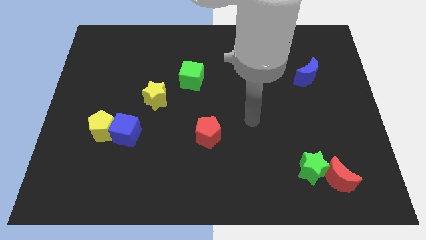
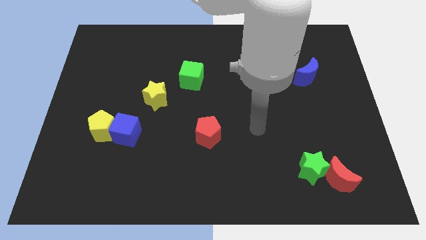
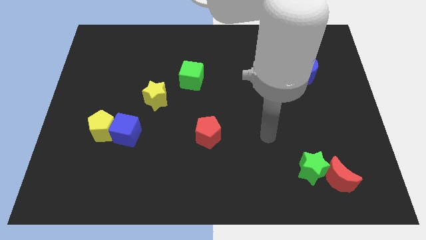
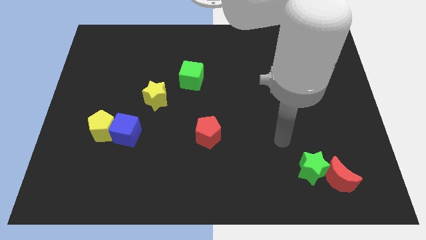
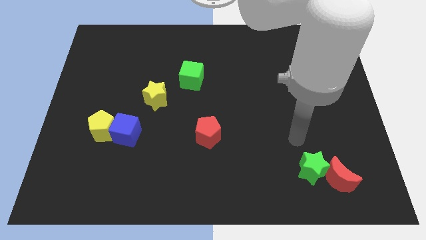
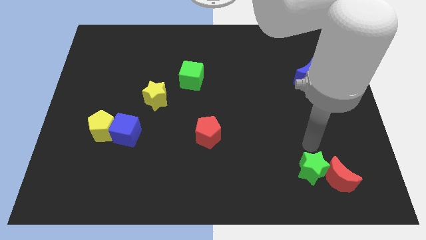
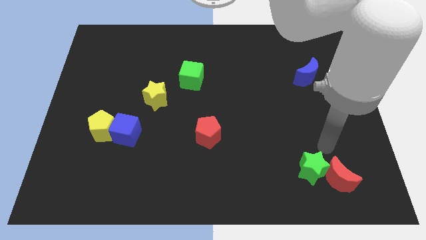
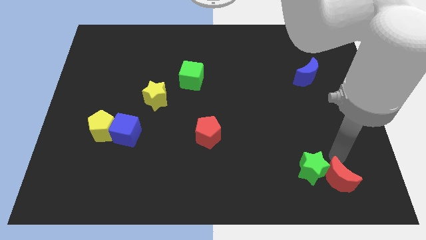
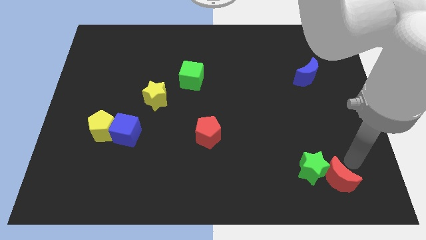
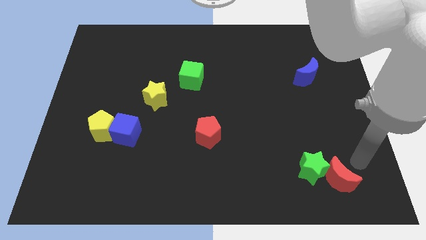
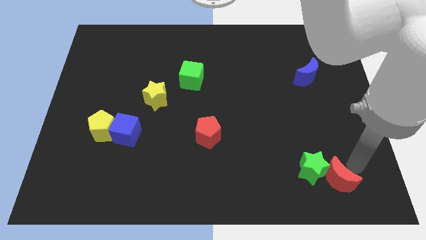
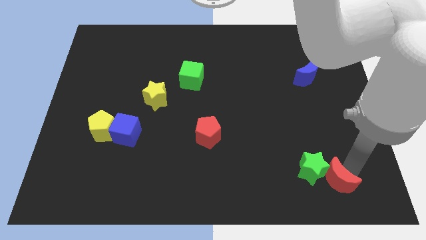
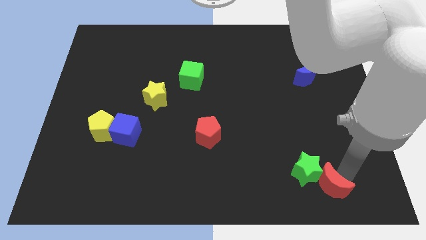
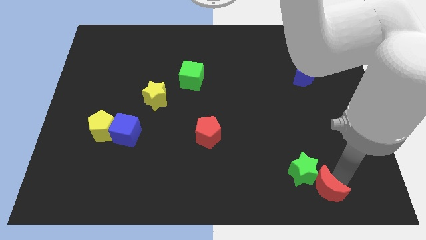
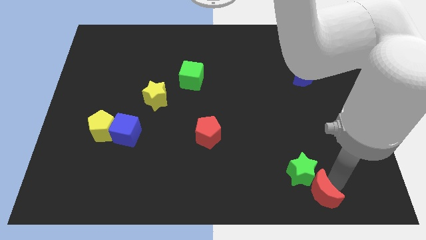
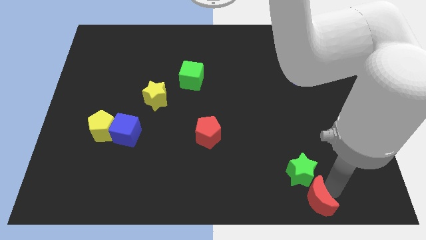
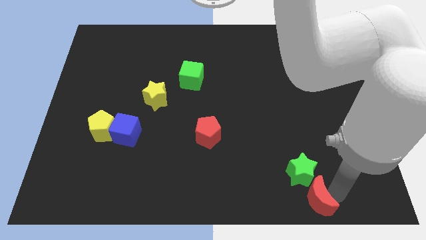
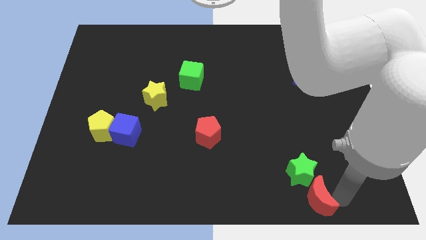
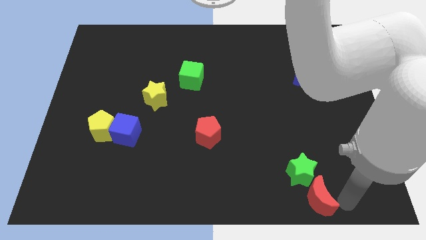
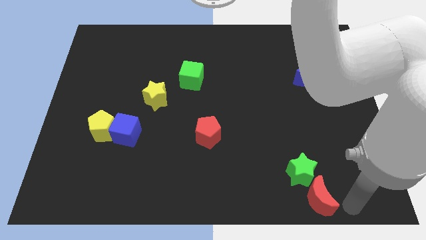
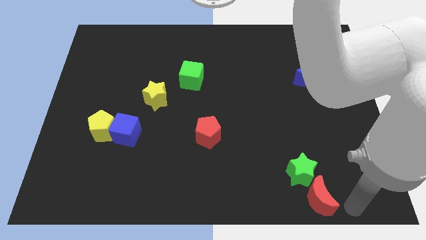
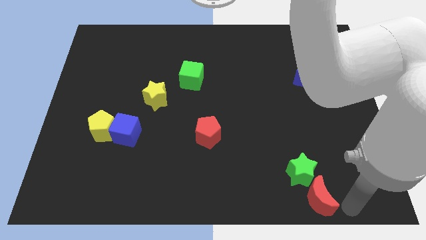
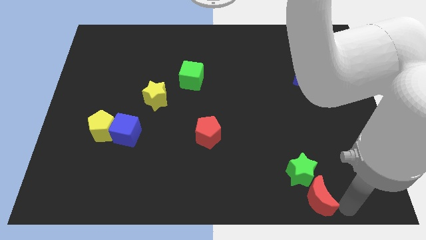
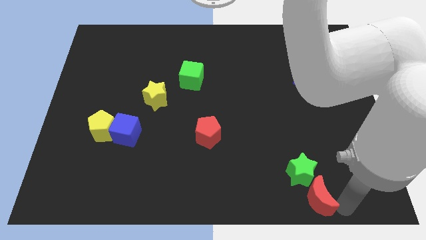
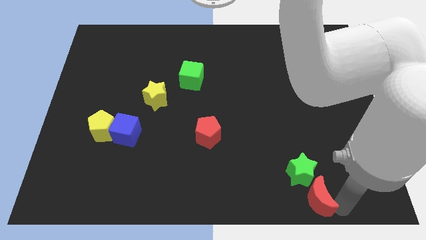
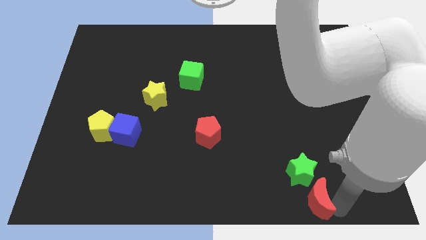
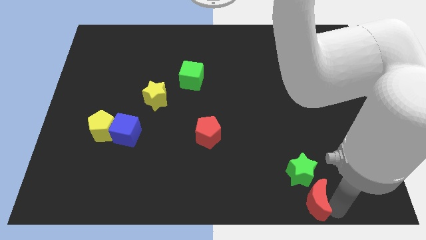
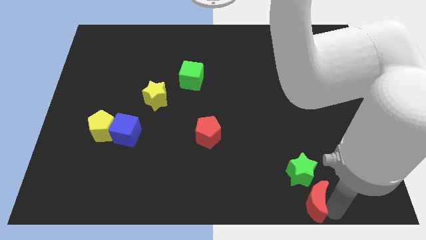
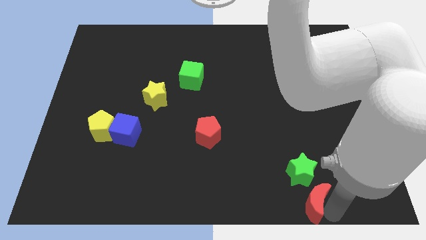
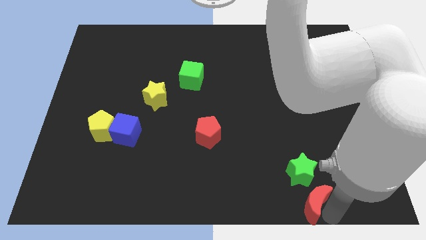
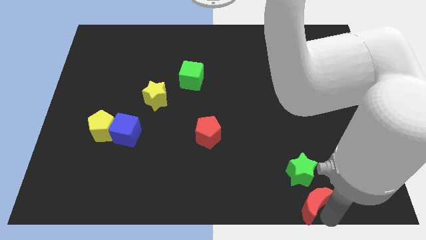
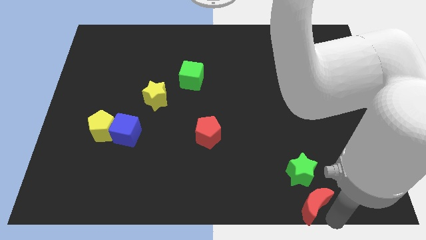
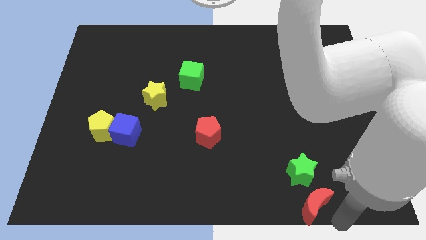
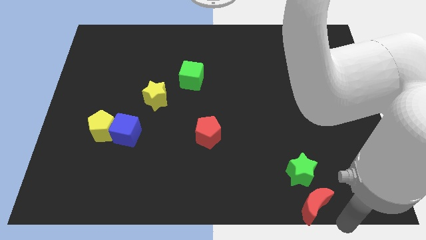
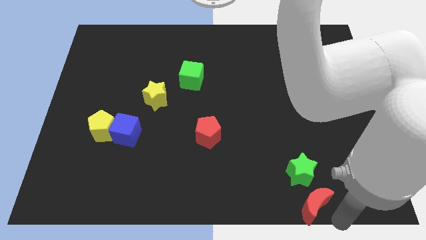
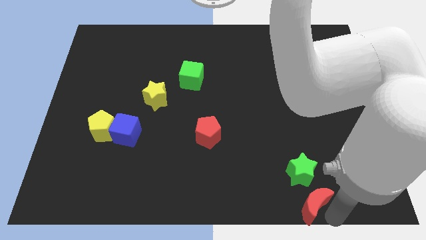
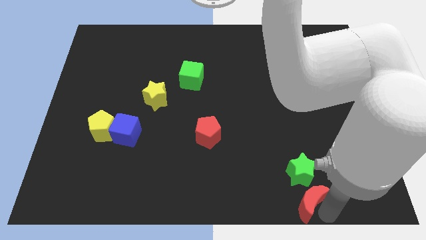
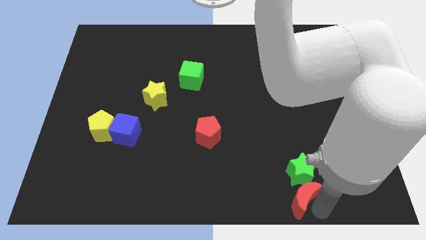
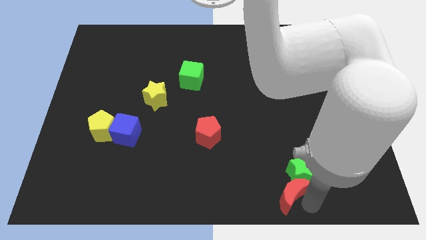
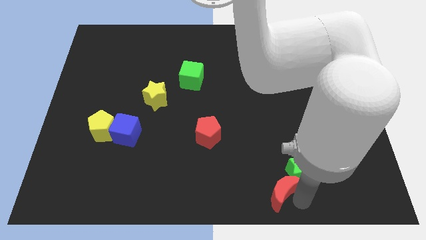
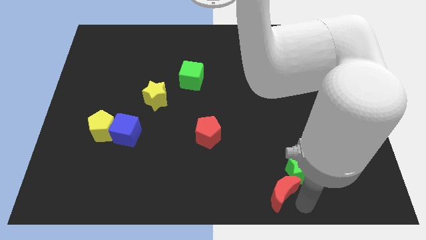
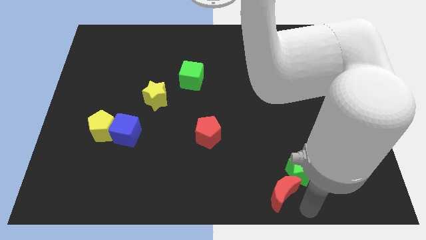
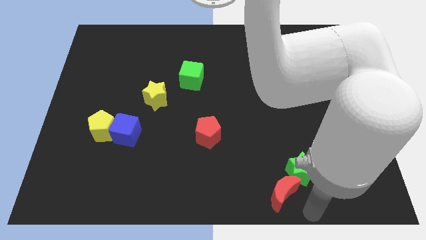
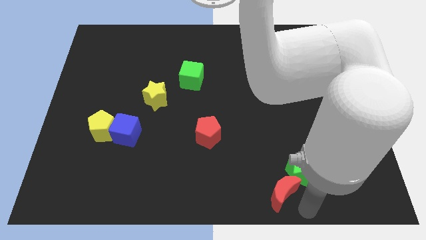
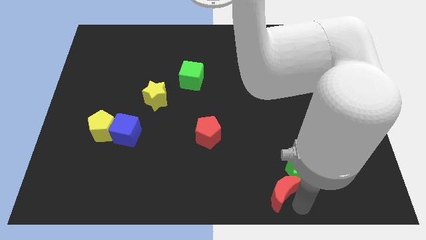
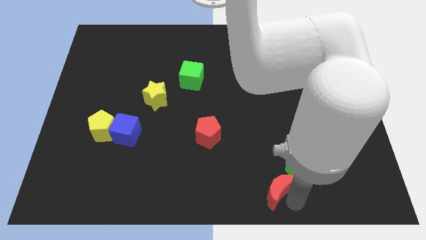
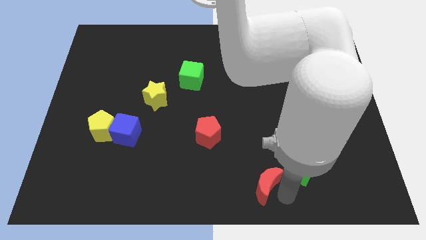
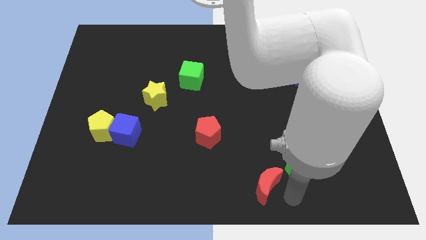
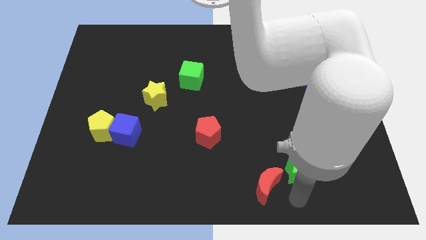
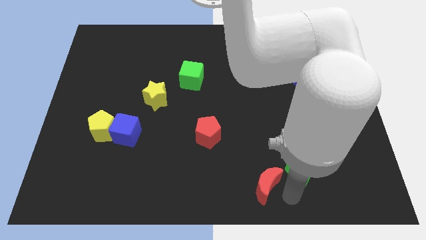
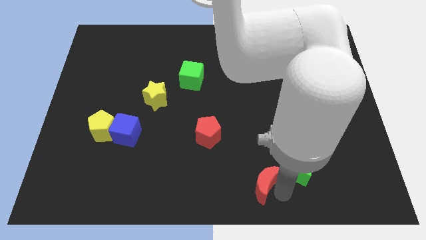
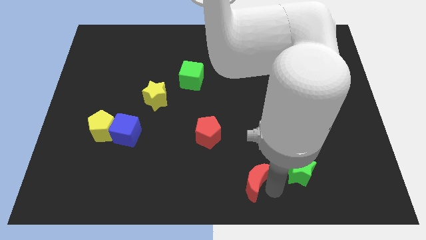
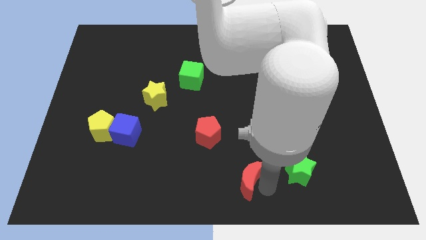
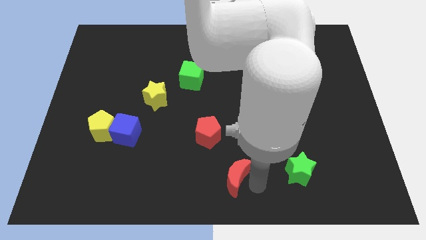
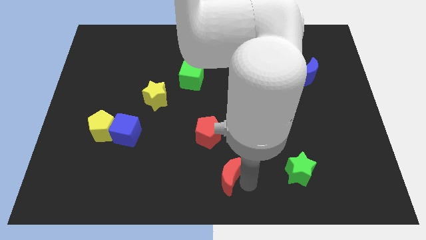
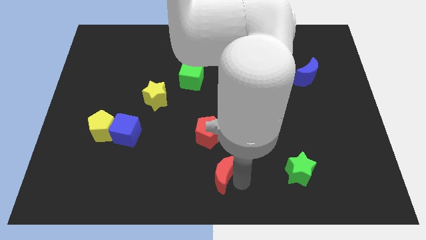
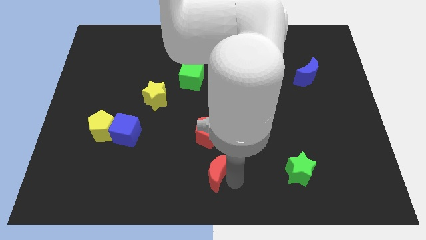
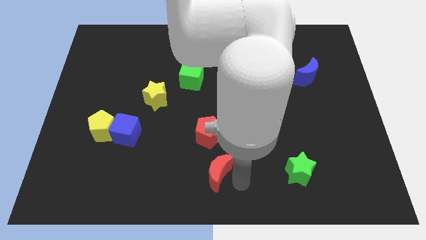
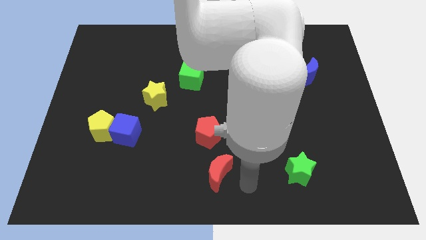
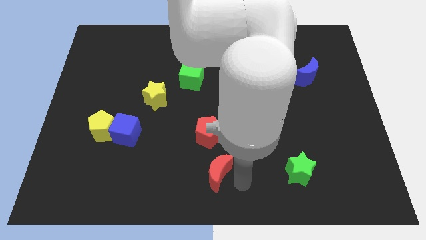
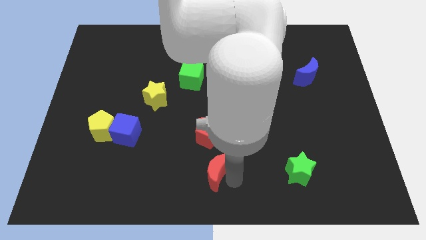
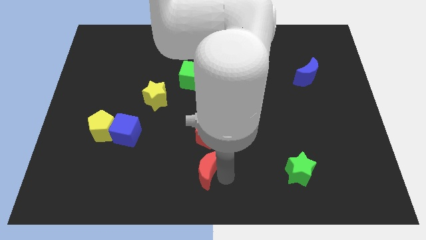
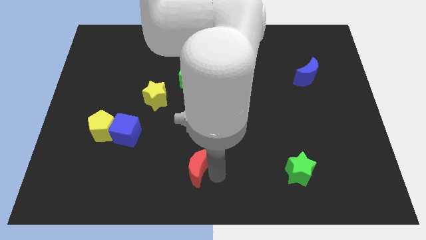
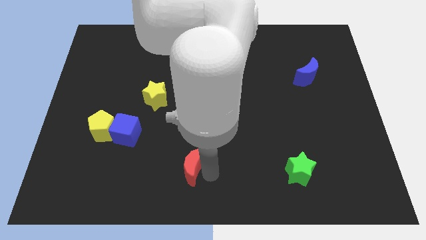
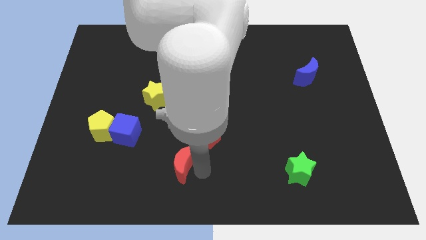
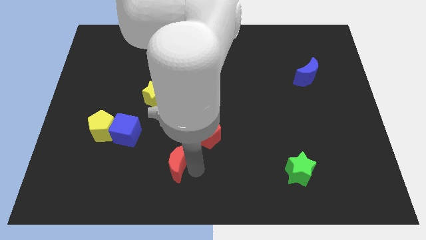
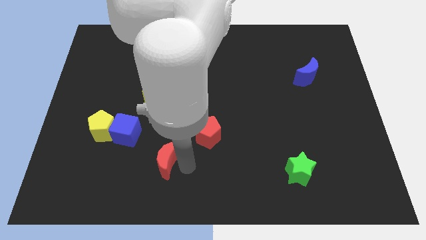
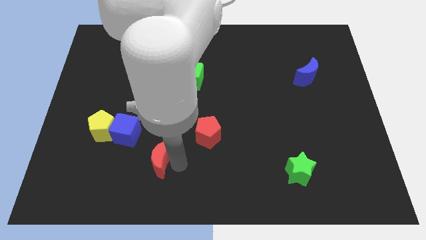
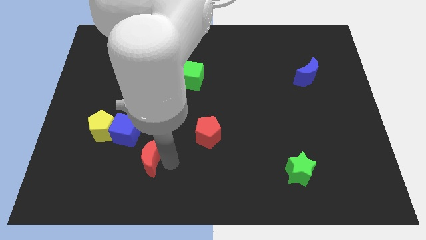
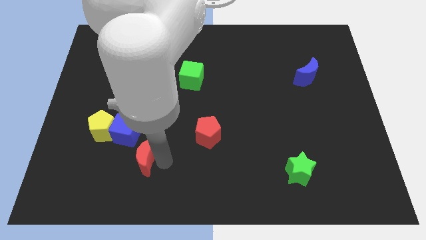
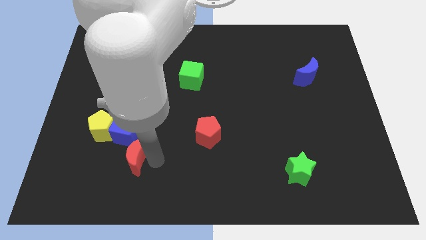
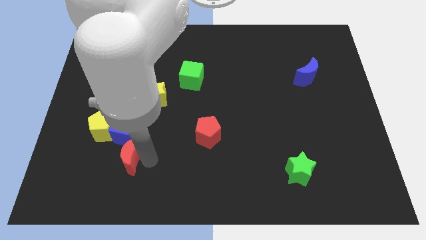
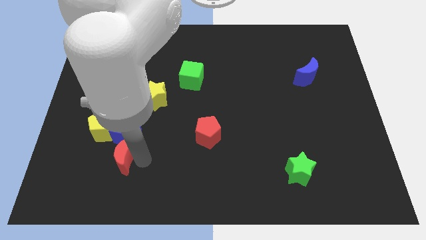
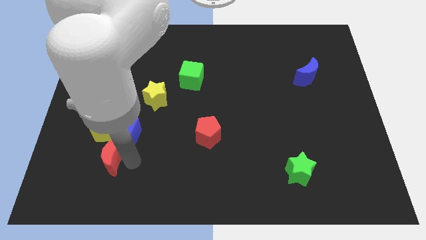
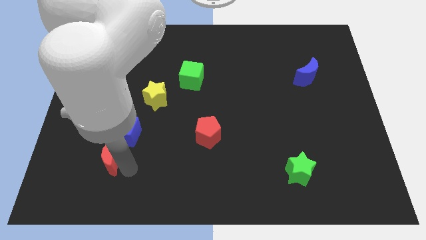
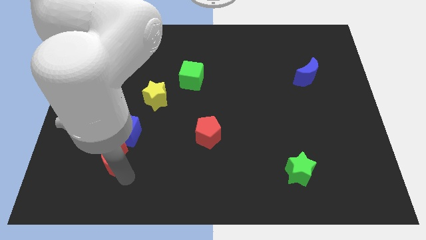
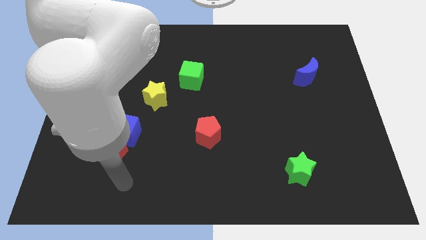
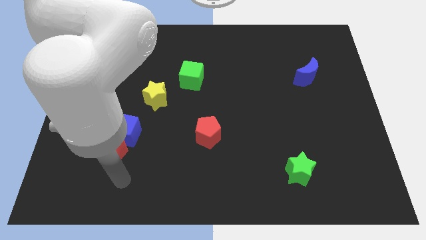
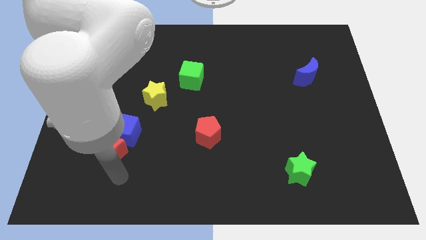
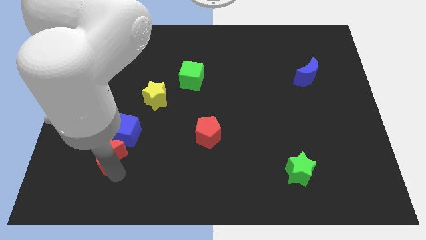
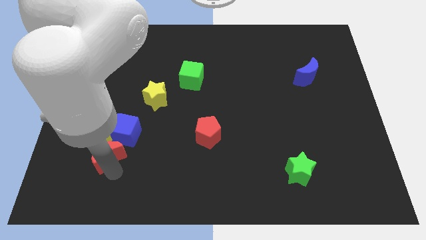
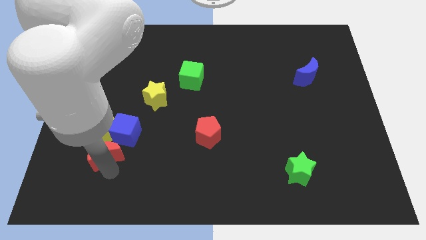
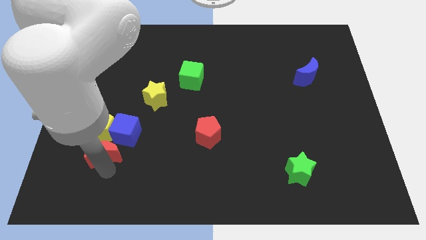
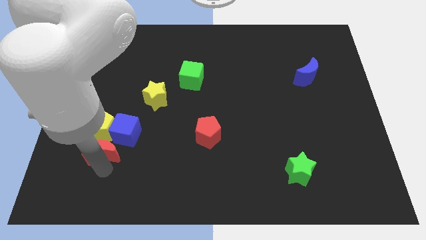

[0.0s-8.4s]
slide the red moon towards the yellow pentagon
